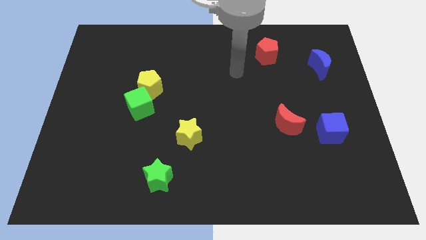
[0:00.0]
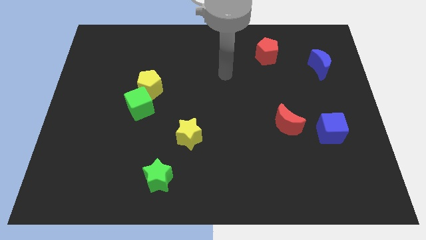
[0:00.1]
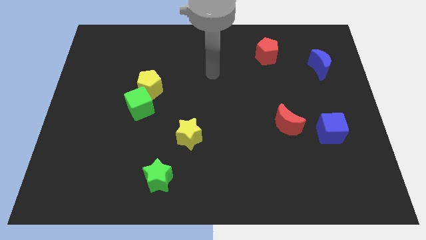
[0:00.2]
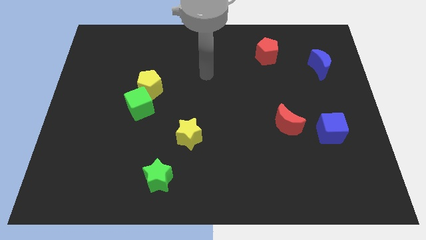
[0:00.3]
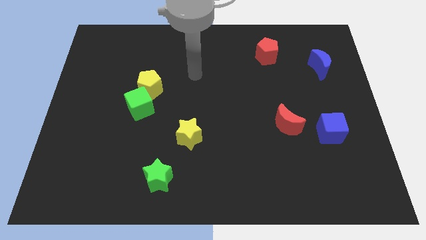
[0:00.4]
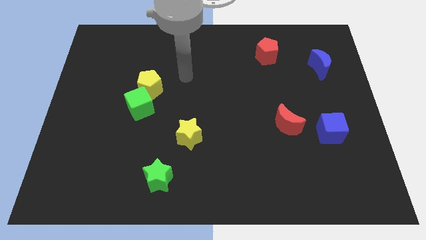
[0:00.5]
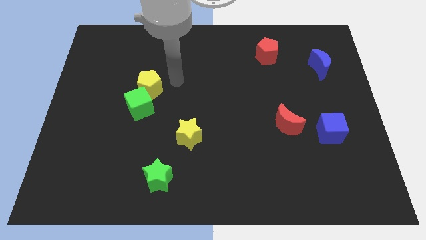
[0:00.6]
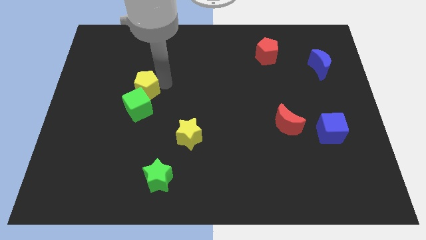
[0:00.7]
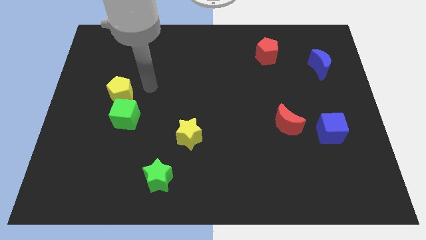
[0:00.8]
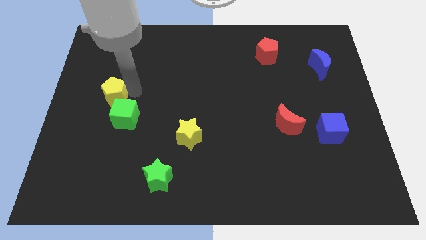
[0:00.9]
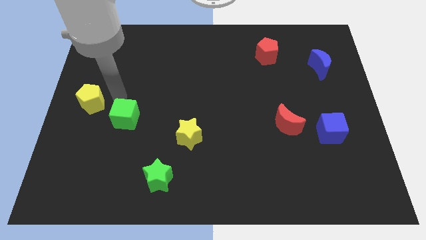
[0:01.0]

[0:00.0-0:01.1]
pull the green cube apart from the yellow pentagon

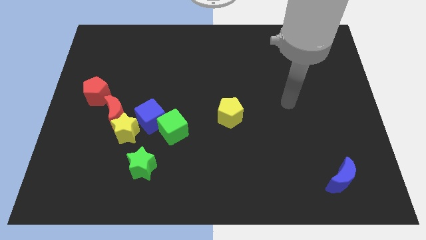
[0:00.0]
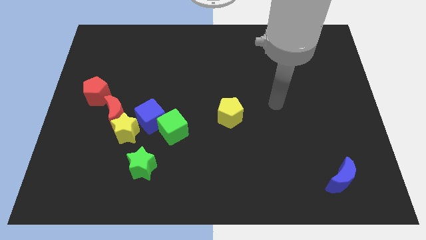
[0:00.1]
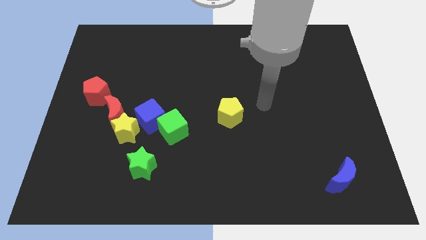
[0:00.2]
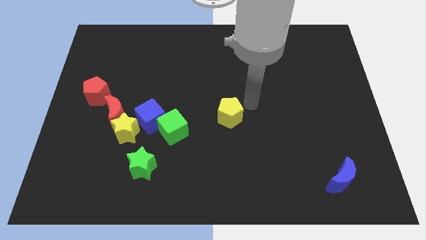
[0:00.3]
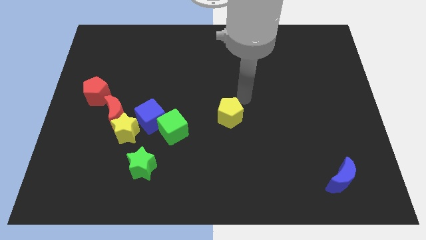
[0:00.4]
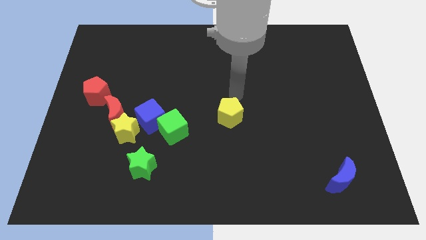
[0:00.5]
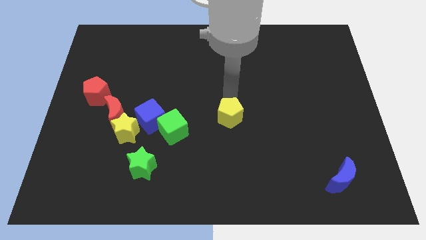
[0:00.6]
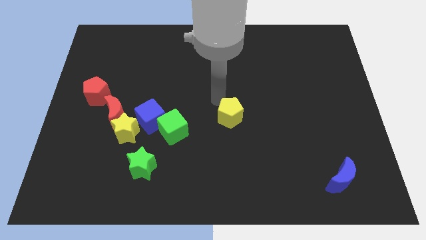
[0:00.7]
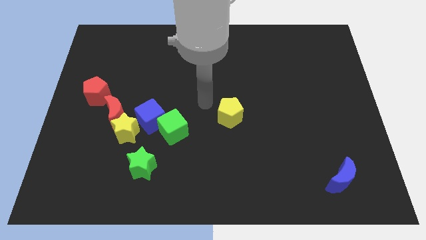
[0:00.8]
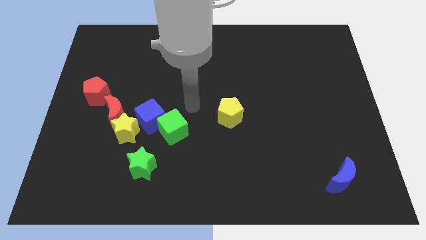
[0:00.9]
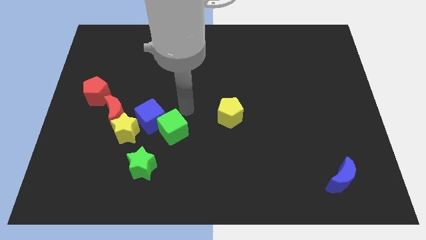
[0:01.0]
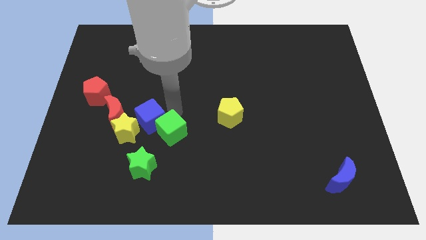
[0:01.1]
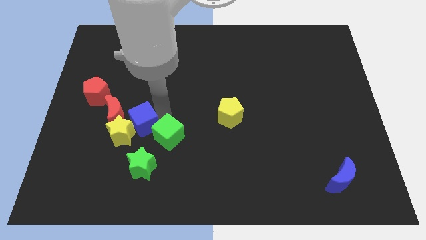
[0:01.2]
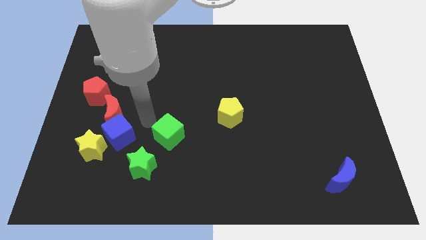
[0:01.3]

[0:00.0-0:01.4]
pull the green cube apart from the blue cube

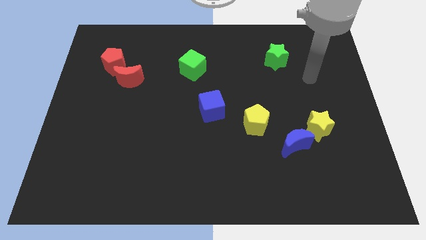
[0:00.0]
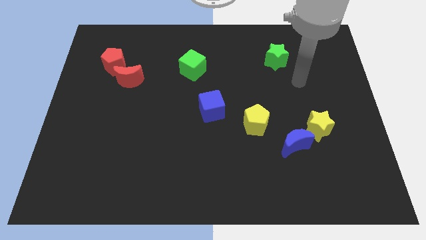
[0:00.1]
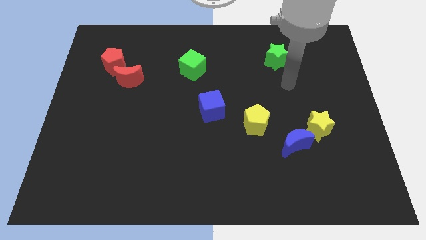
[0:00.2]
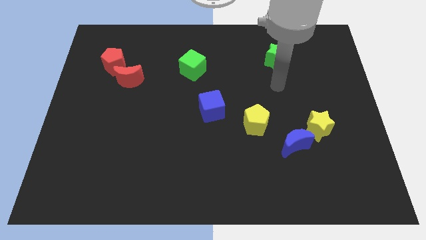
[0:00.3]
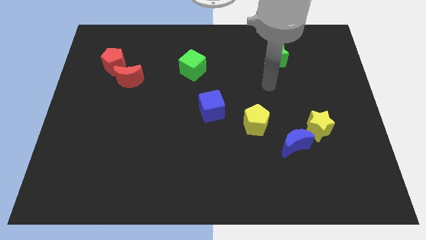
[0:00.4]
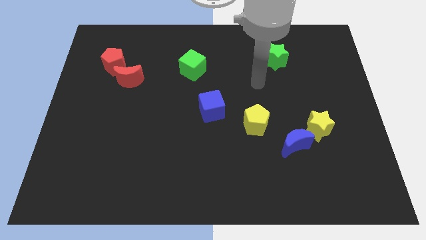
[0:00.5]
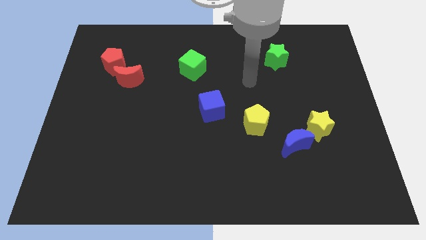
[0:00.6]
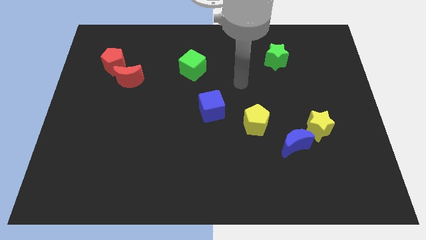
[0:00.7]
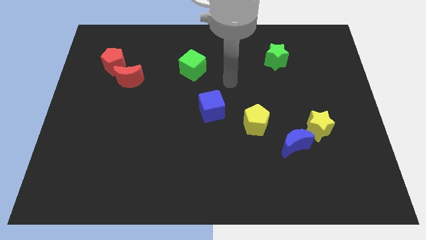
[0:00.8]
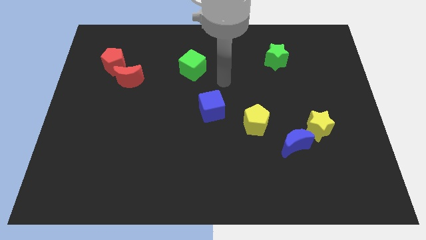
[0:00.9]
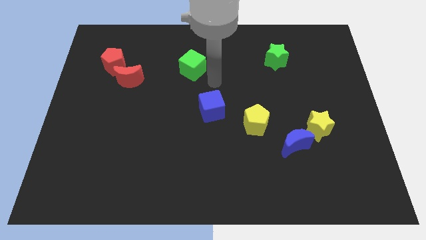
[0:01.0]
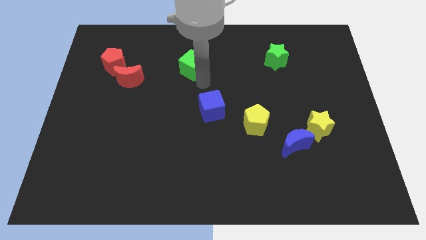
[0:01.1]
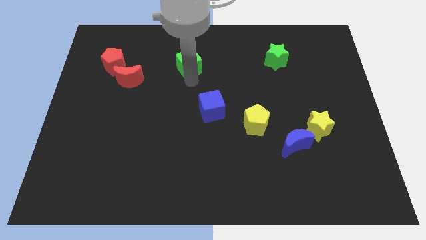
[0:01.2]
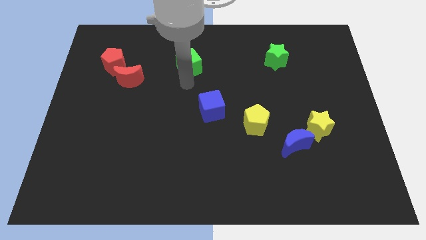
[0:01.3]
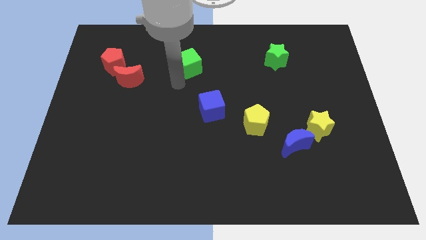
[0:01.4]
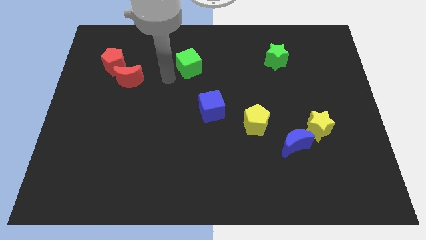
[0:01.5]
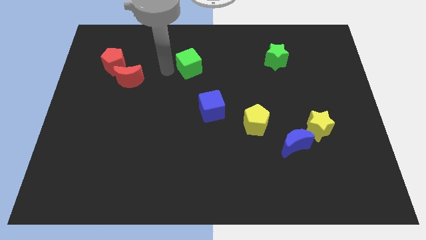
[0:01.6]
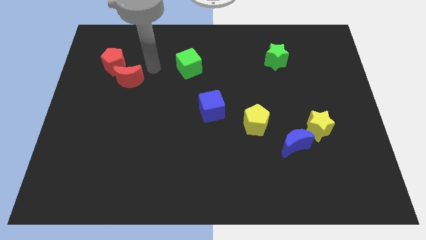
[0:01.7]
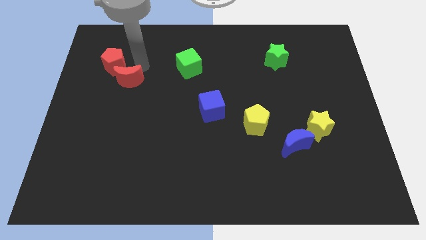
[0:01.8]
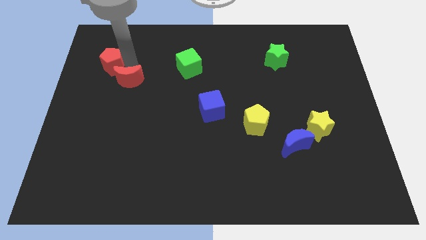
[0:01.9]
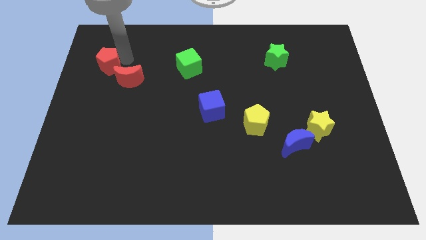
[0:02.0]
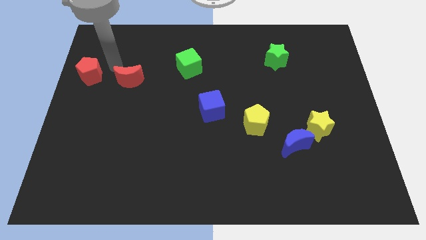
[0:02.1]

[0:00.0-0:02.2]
separate the red moon from the red pentagon

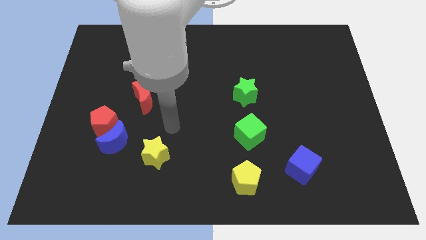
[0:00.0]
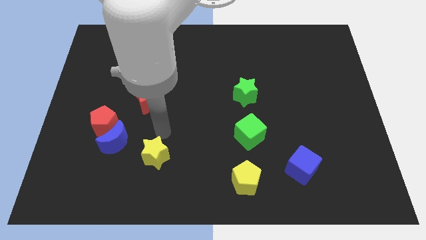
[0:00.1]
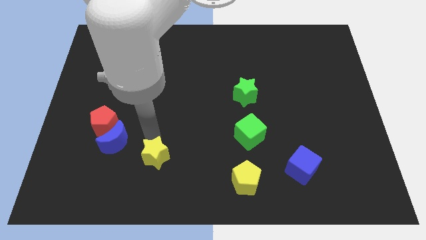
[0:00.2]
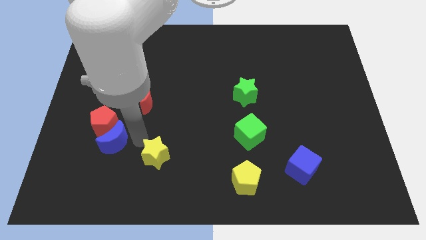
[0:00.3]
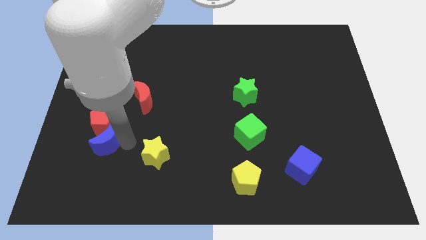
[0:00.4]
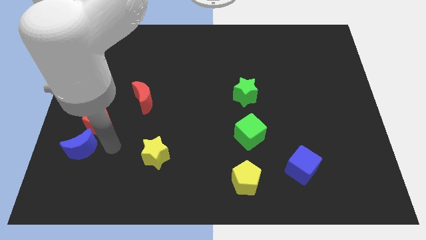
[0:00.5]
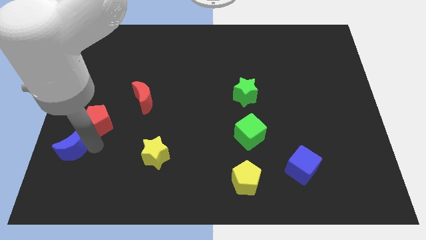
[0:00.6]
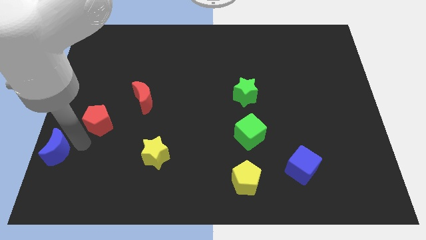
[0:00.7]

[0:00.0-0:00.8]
move the red pentagon away from the blue moon

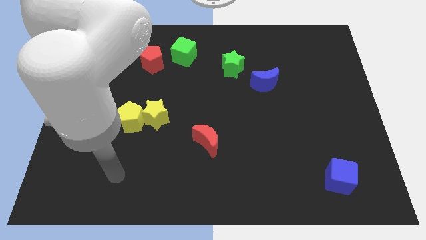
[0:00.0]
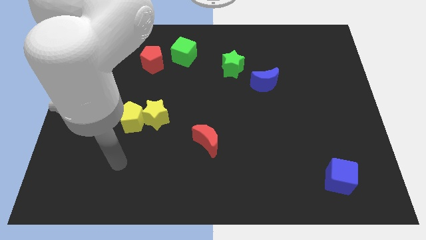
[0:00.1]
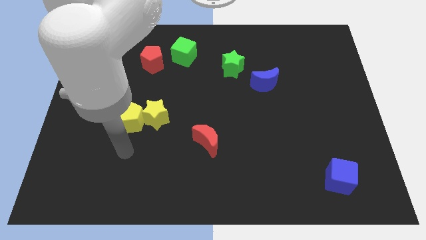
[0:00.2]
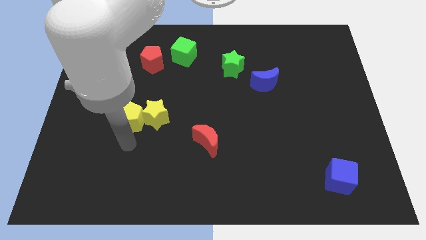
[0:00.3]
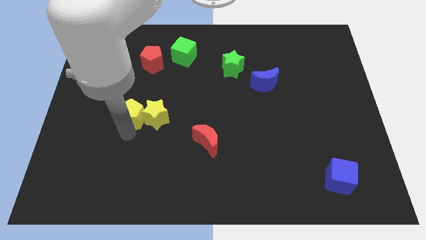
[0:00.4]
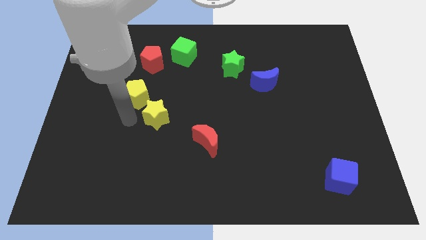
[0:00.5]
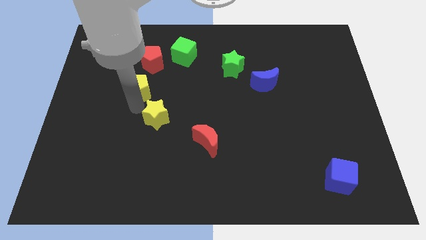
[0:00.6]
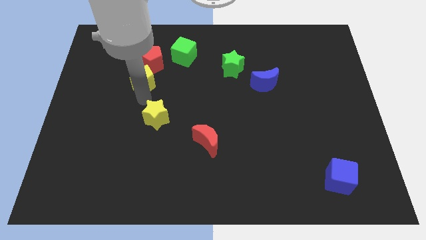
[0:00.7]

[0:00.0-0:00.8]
separate the yellow star from the yellow pentagon

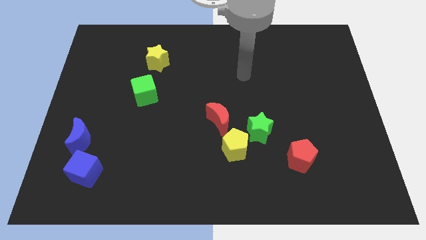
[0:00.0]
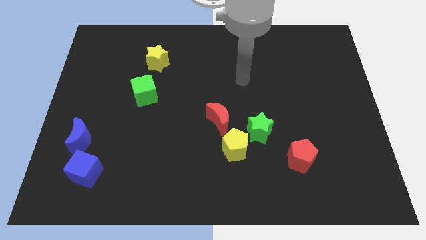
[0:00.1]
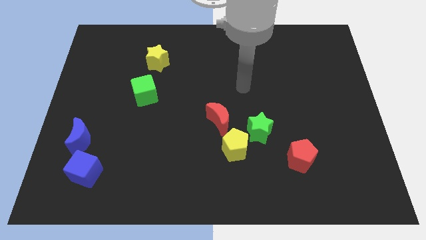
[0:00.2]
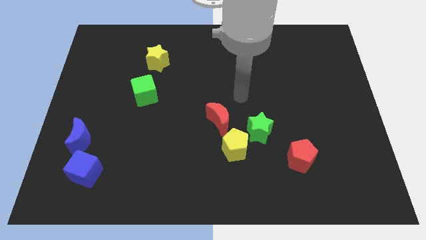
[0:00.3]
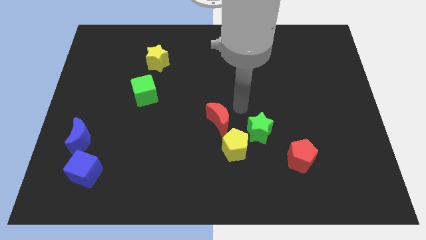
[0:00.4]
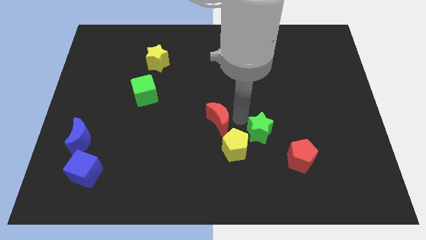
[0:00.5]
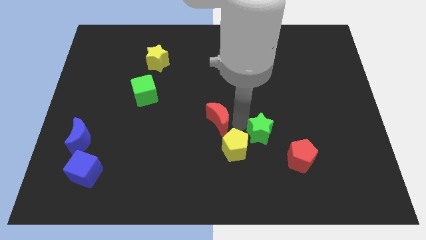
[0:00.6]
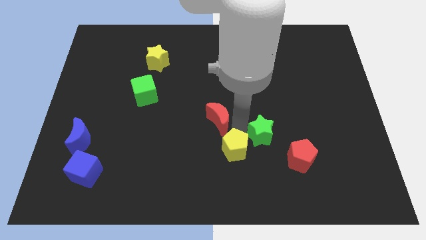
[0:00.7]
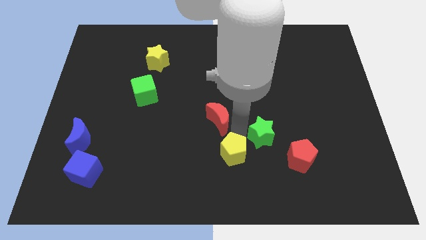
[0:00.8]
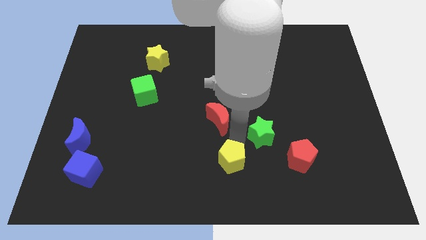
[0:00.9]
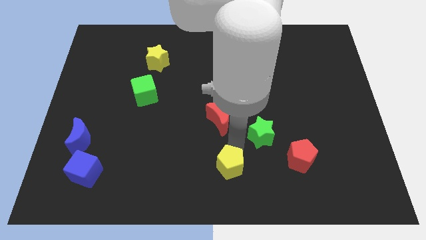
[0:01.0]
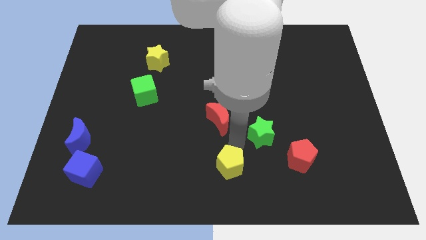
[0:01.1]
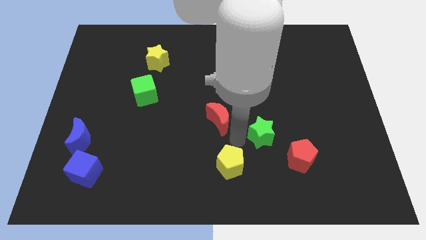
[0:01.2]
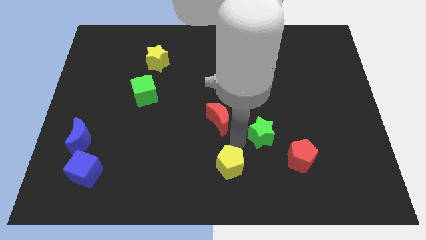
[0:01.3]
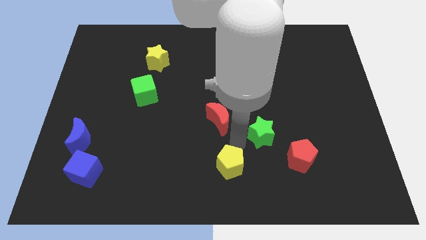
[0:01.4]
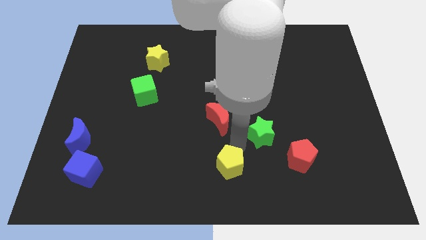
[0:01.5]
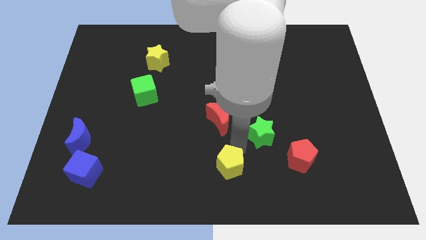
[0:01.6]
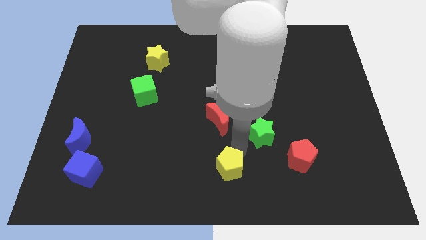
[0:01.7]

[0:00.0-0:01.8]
separate the yellow pentagon from the green star and red moon

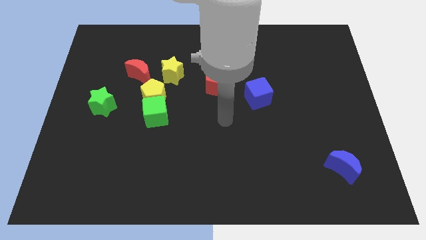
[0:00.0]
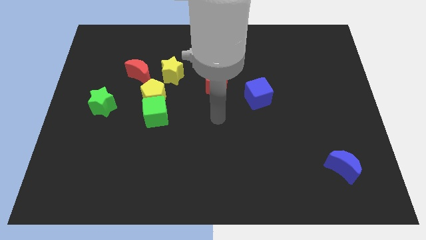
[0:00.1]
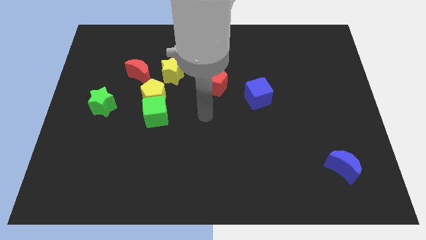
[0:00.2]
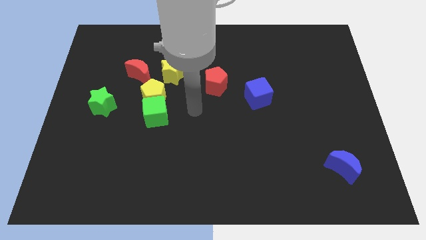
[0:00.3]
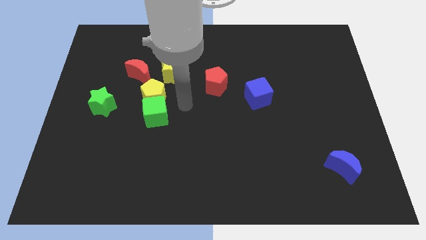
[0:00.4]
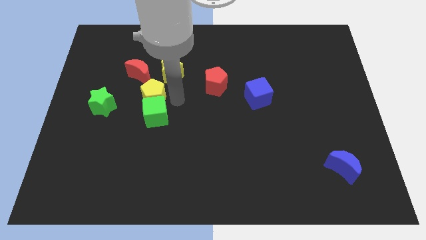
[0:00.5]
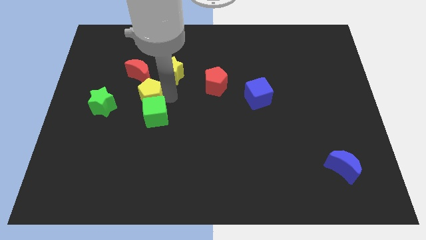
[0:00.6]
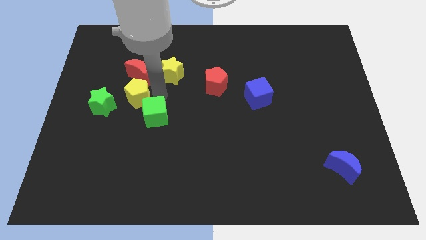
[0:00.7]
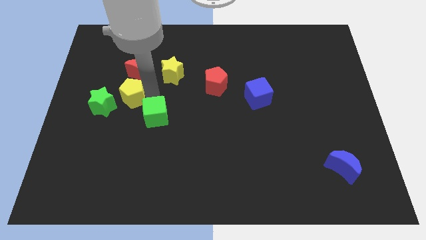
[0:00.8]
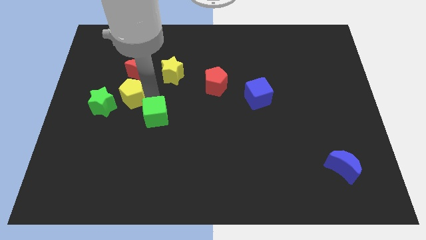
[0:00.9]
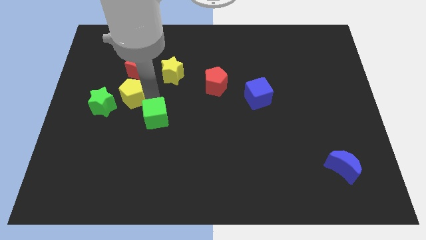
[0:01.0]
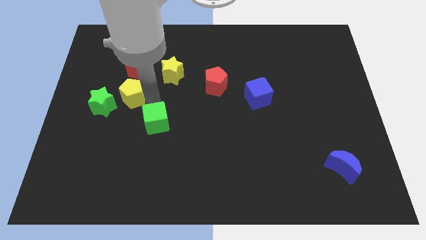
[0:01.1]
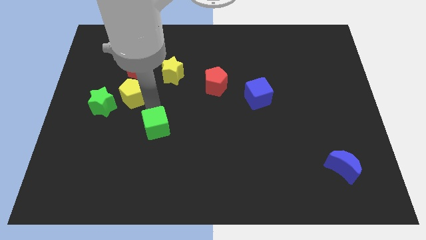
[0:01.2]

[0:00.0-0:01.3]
move the green cube away from the yellow pentagon
